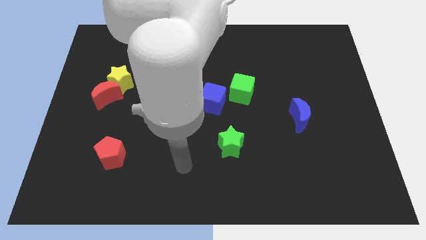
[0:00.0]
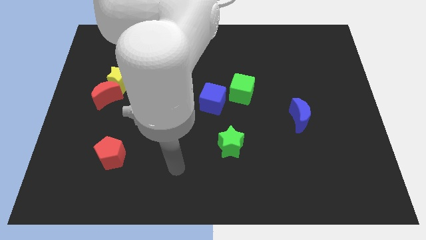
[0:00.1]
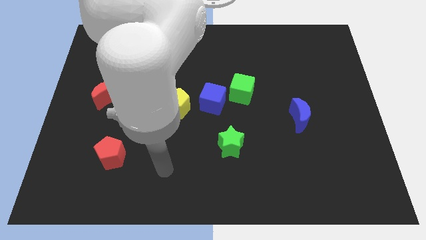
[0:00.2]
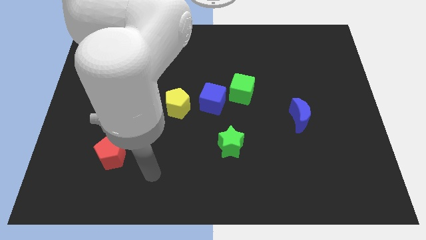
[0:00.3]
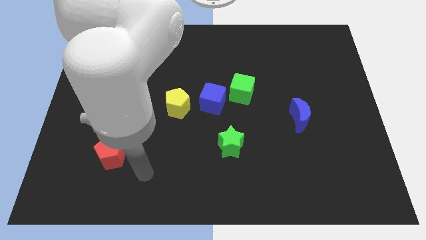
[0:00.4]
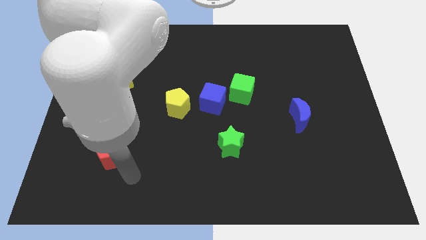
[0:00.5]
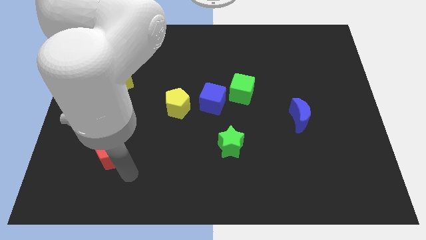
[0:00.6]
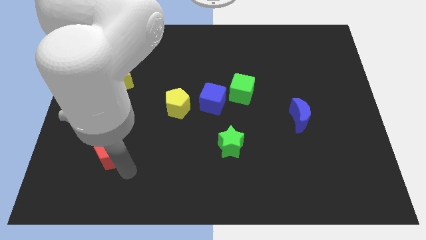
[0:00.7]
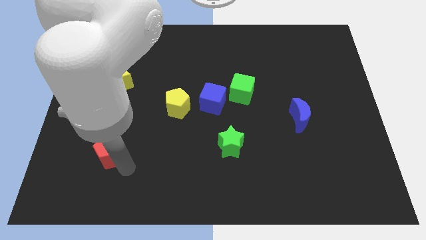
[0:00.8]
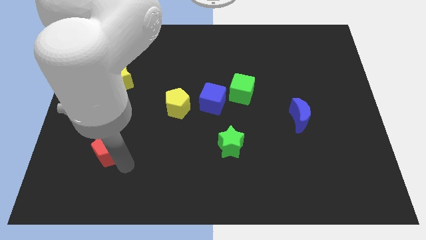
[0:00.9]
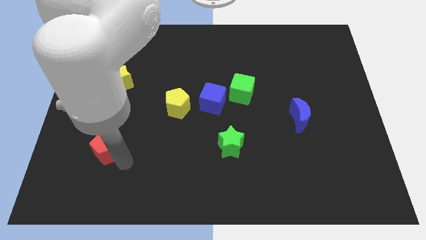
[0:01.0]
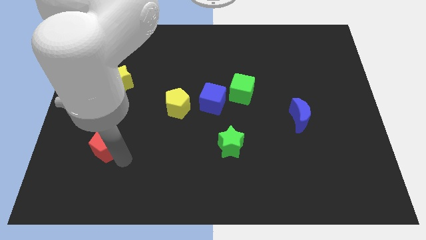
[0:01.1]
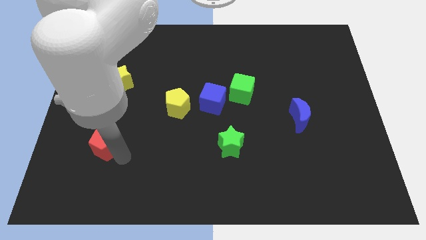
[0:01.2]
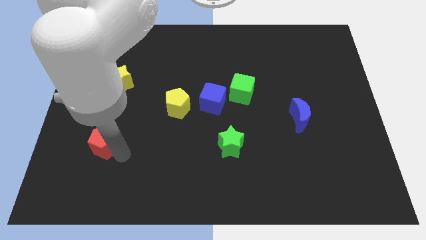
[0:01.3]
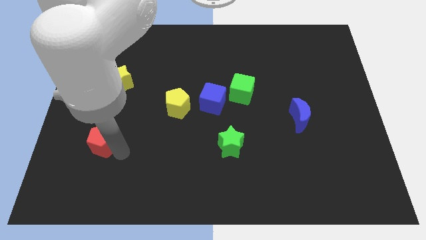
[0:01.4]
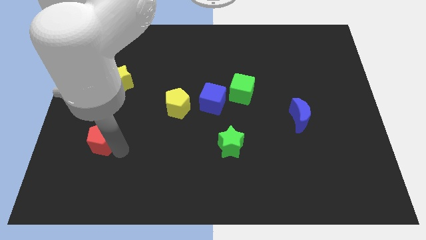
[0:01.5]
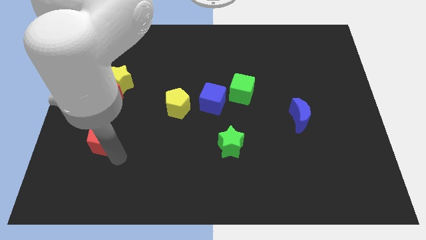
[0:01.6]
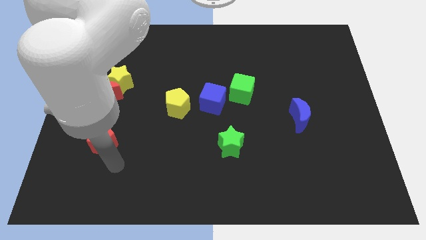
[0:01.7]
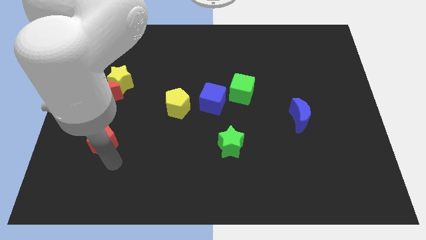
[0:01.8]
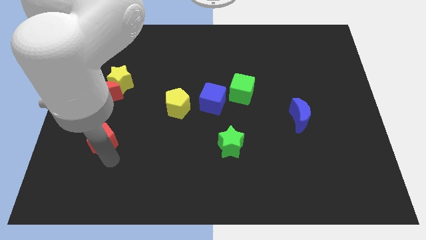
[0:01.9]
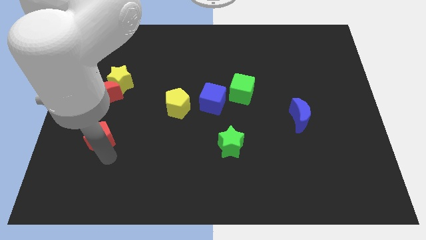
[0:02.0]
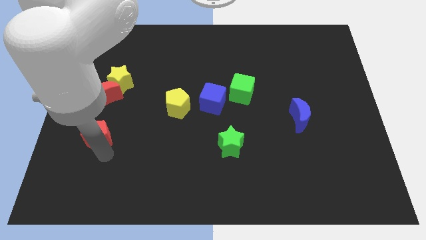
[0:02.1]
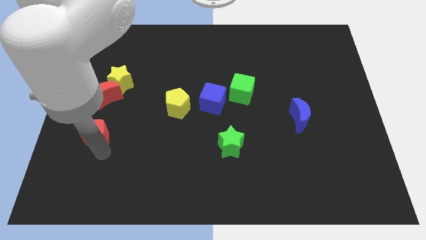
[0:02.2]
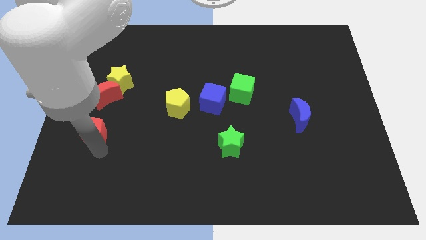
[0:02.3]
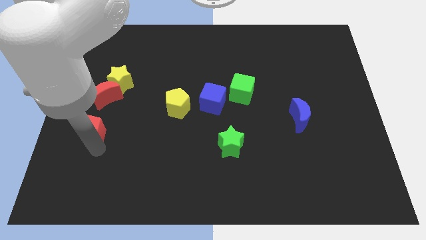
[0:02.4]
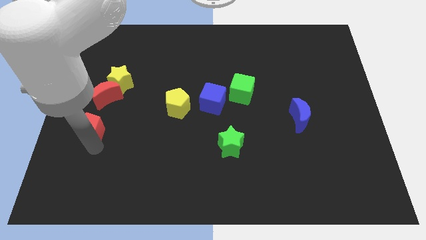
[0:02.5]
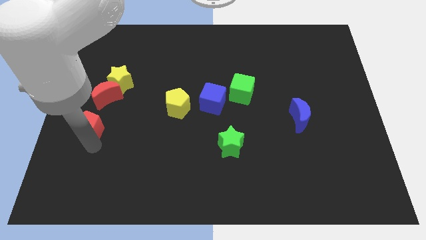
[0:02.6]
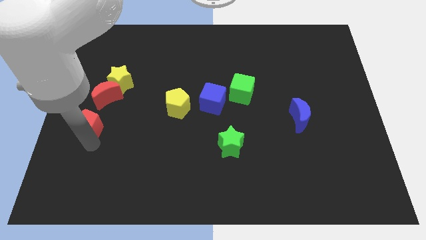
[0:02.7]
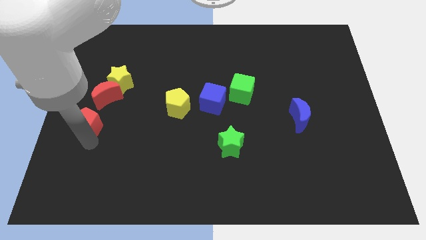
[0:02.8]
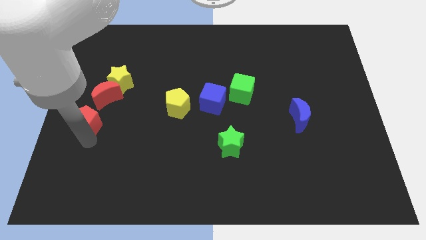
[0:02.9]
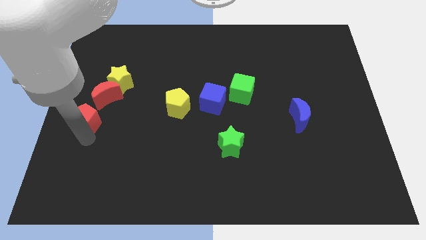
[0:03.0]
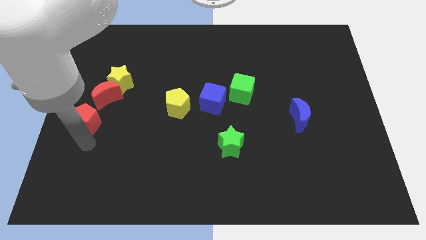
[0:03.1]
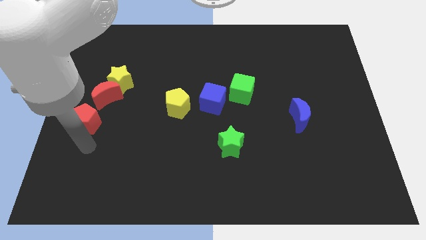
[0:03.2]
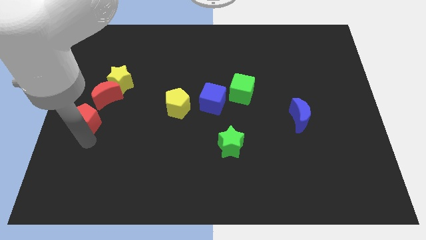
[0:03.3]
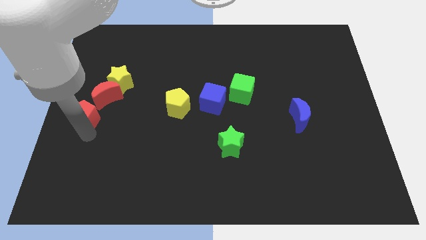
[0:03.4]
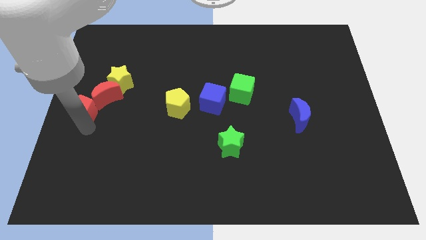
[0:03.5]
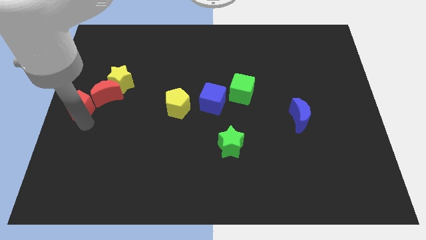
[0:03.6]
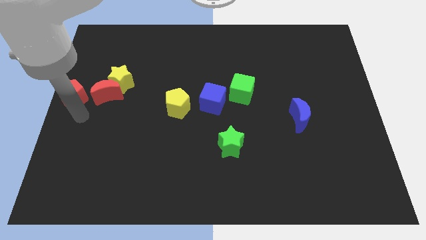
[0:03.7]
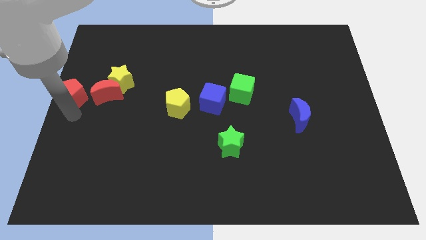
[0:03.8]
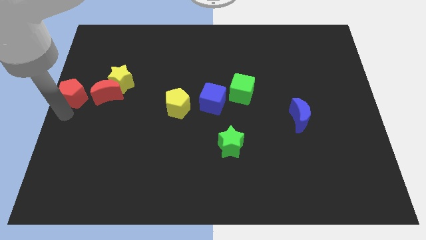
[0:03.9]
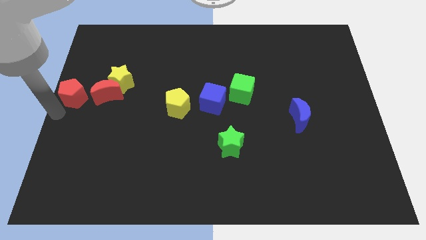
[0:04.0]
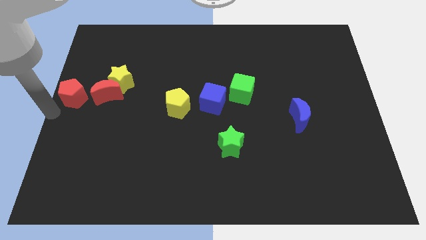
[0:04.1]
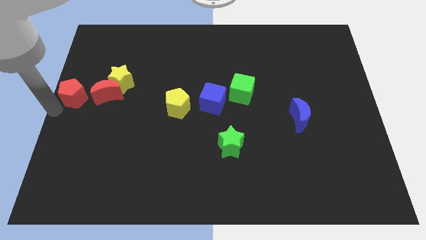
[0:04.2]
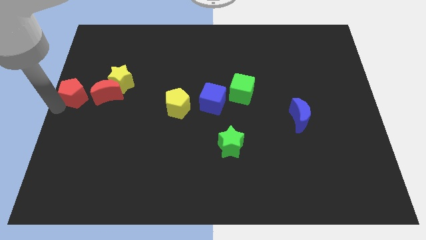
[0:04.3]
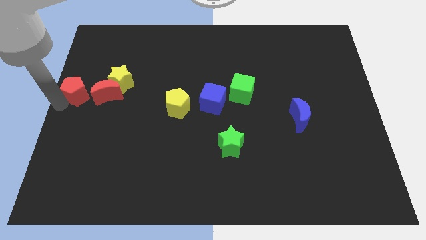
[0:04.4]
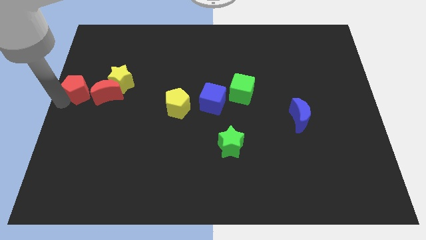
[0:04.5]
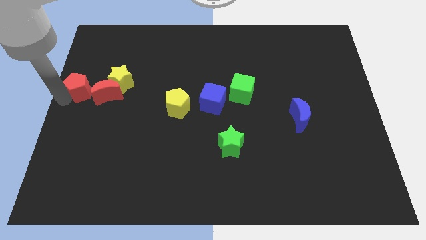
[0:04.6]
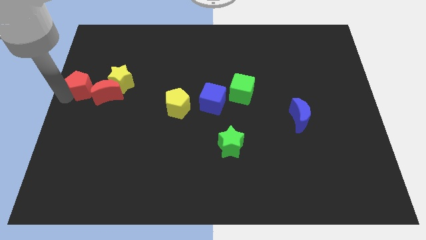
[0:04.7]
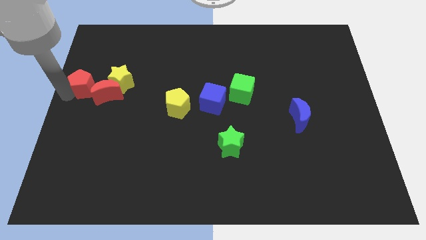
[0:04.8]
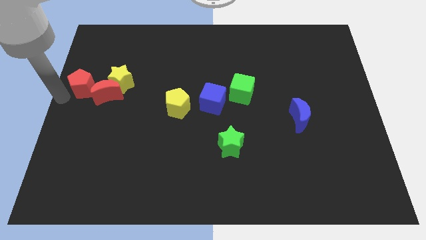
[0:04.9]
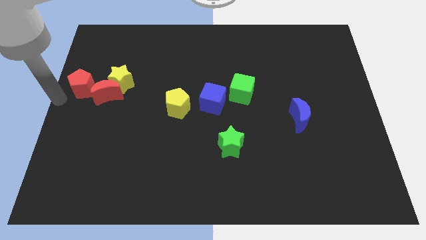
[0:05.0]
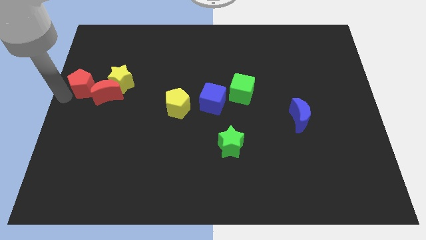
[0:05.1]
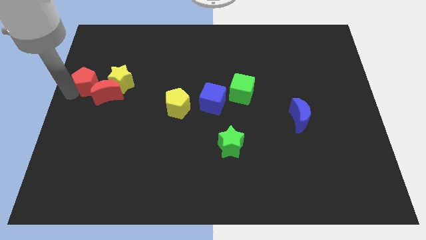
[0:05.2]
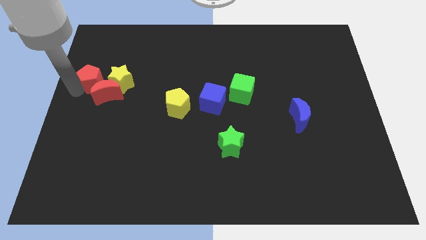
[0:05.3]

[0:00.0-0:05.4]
move the red pentagon above the red moon

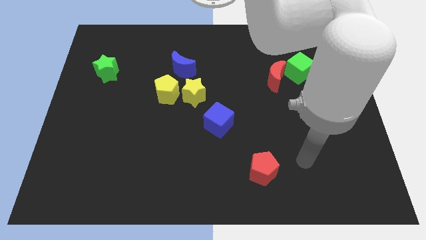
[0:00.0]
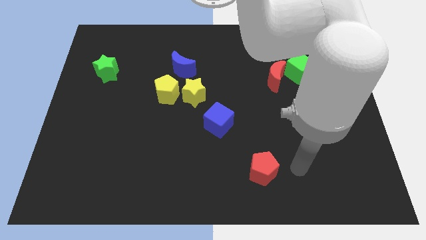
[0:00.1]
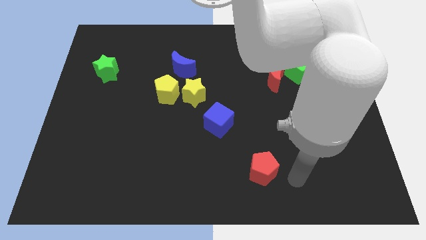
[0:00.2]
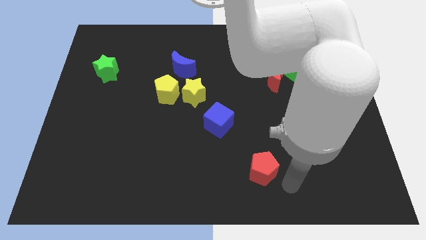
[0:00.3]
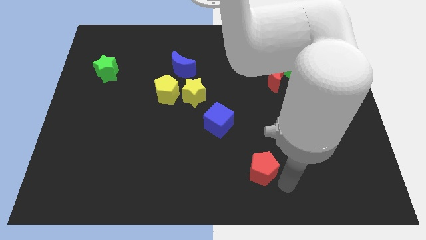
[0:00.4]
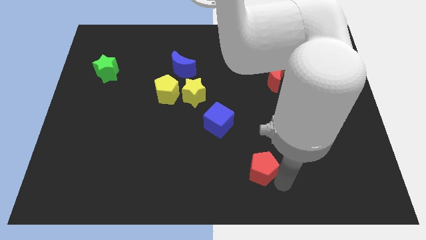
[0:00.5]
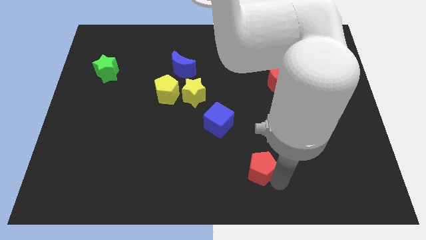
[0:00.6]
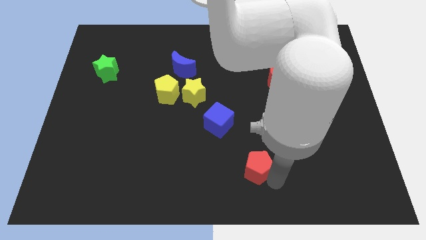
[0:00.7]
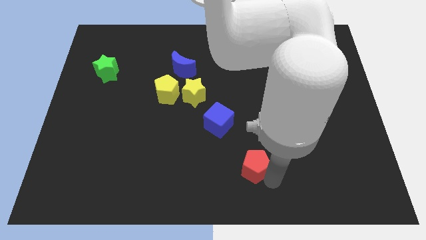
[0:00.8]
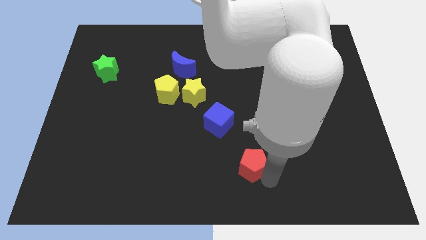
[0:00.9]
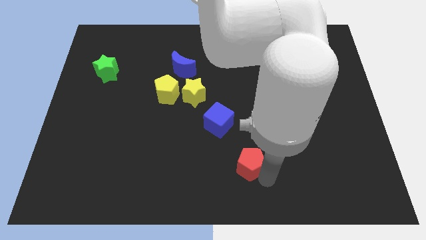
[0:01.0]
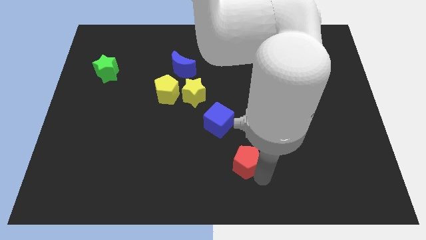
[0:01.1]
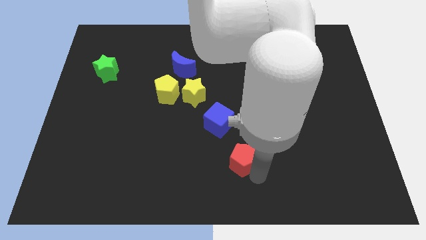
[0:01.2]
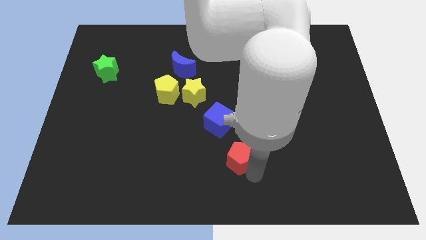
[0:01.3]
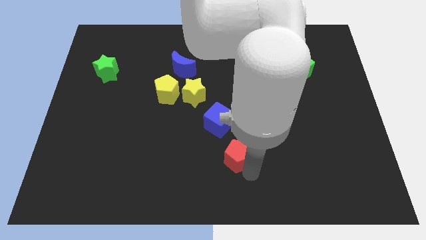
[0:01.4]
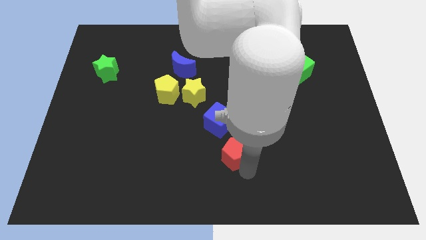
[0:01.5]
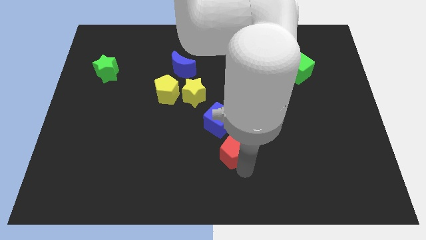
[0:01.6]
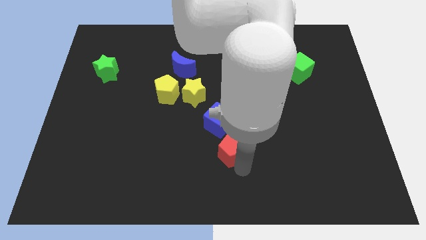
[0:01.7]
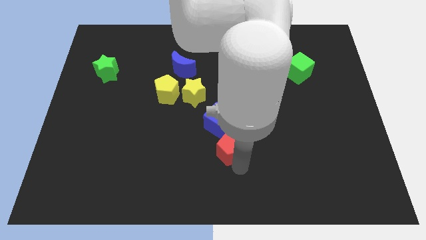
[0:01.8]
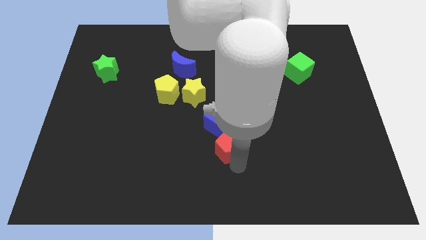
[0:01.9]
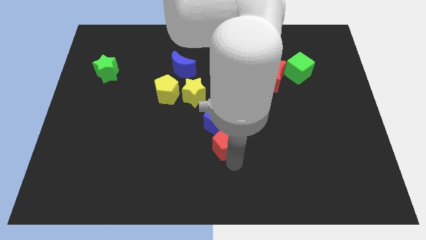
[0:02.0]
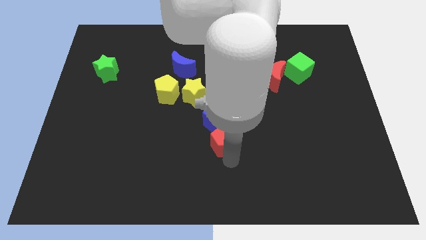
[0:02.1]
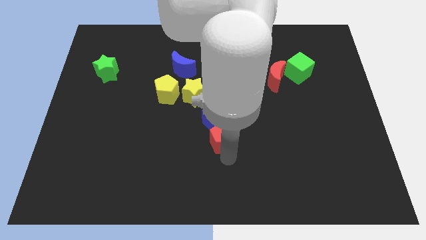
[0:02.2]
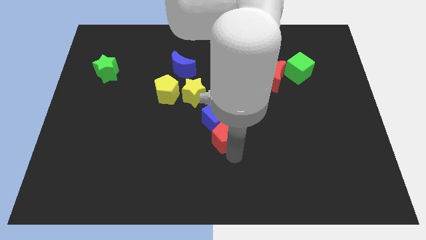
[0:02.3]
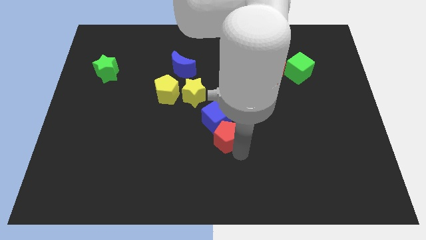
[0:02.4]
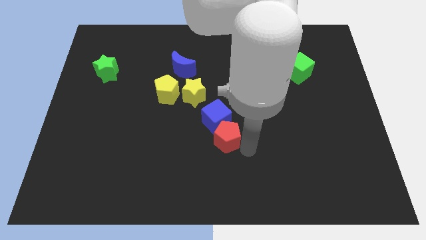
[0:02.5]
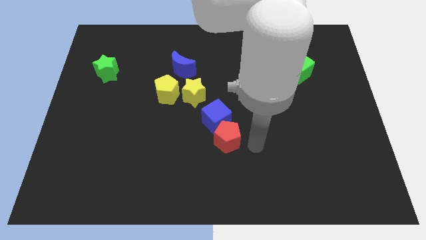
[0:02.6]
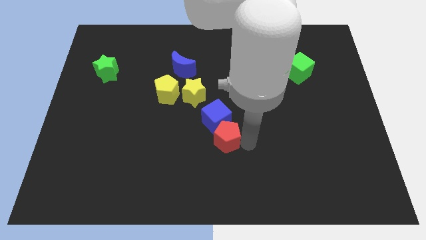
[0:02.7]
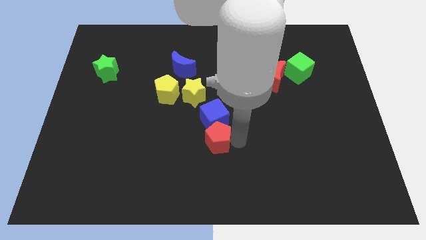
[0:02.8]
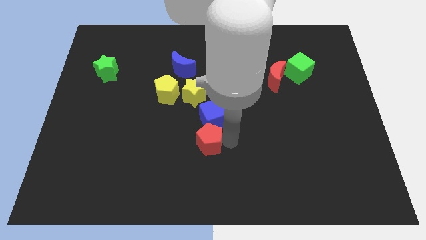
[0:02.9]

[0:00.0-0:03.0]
put the red pentagon below the yellow star
